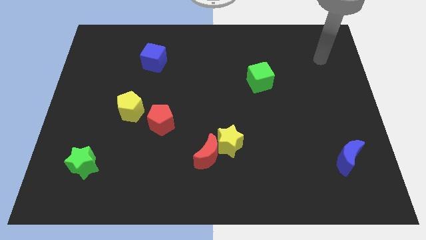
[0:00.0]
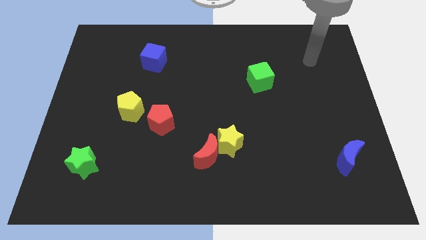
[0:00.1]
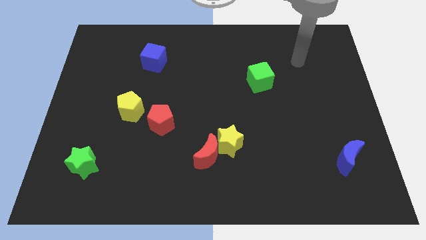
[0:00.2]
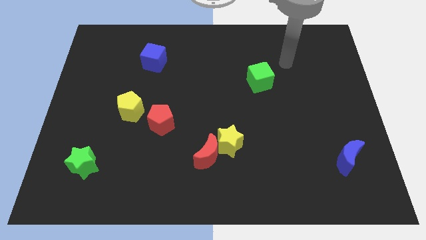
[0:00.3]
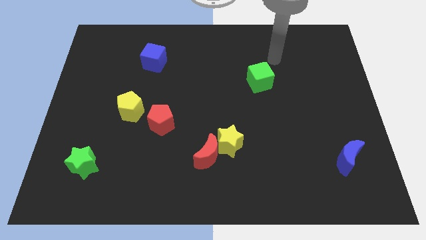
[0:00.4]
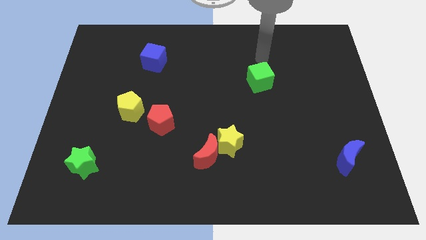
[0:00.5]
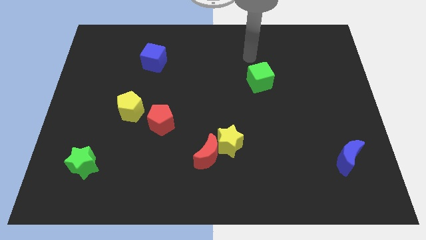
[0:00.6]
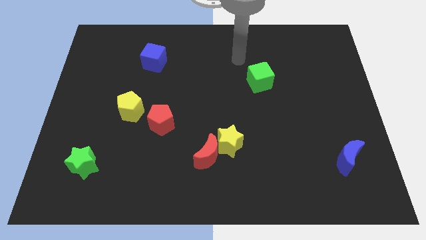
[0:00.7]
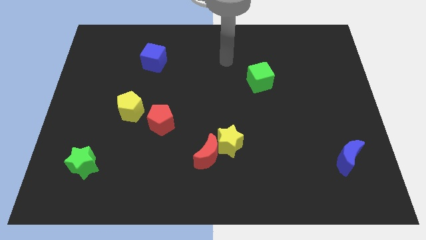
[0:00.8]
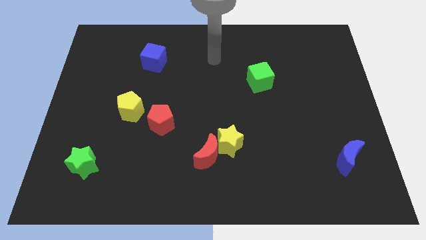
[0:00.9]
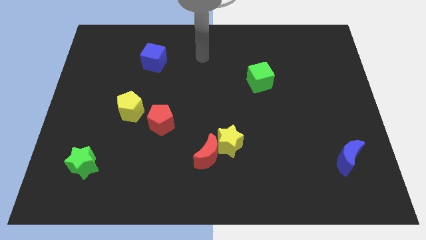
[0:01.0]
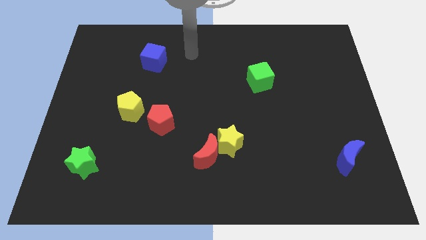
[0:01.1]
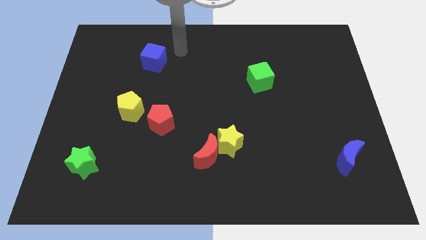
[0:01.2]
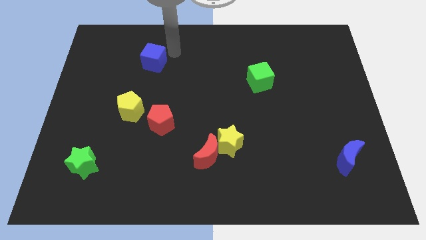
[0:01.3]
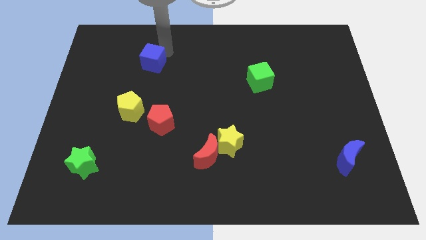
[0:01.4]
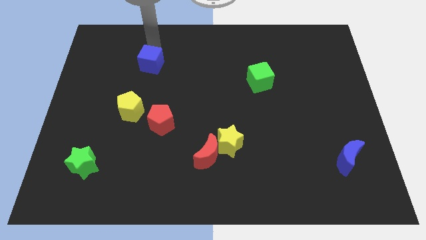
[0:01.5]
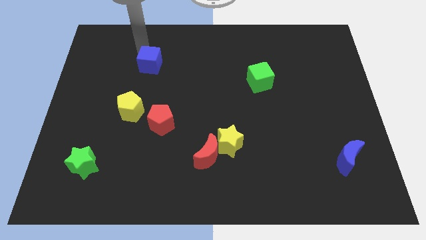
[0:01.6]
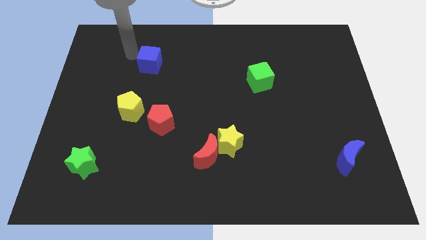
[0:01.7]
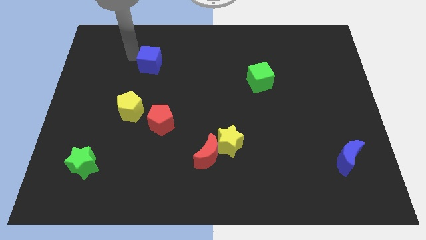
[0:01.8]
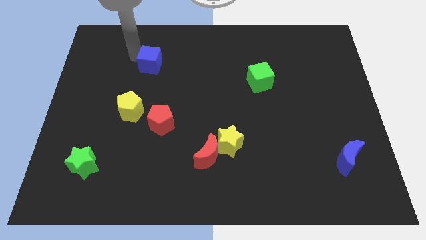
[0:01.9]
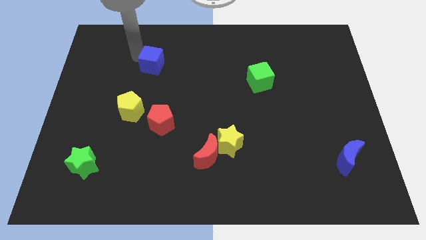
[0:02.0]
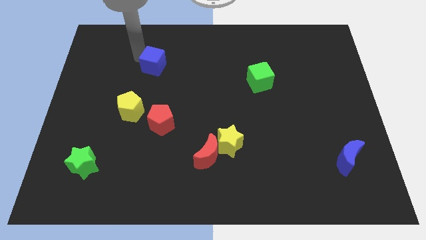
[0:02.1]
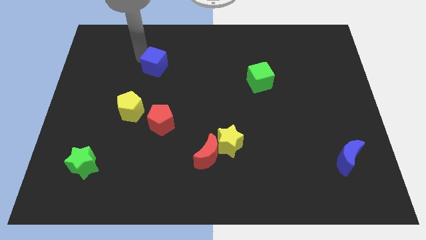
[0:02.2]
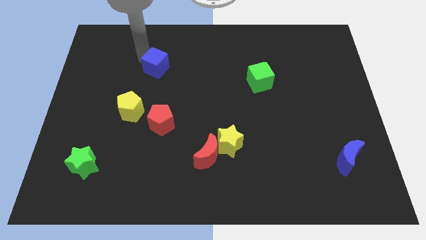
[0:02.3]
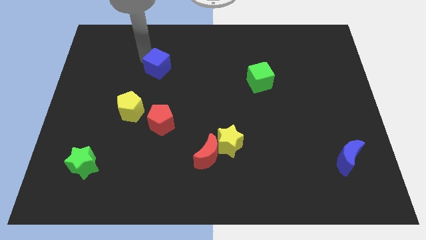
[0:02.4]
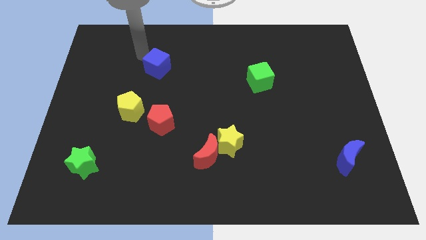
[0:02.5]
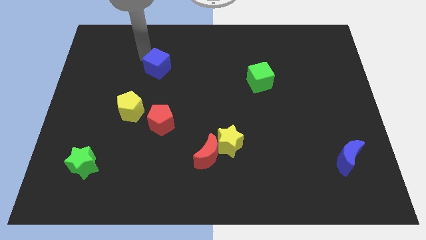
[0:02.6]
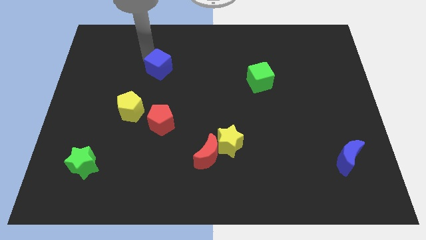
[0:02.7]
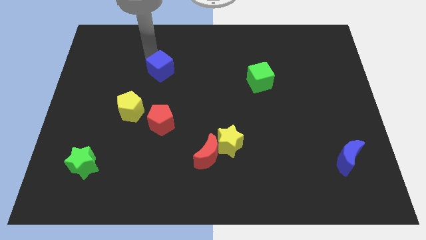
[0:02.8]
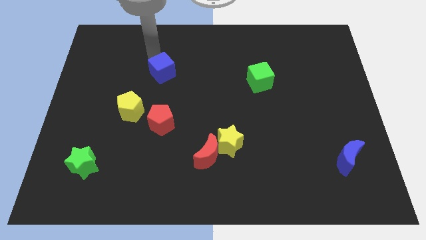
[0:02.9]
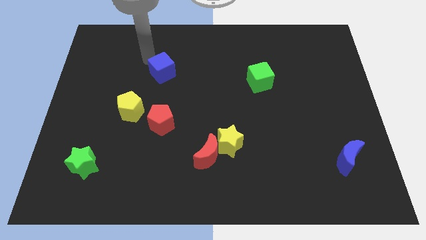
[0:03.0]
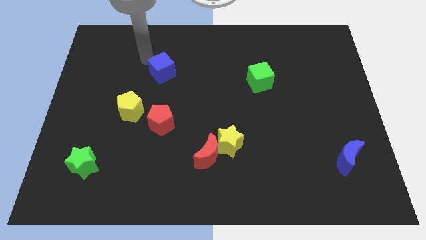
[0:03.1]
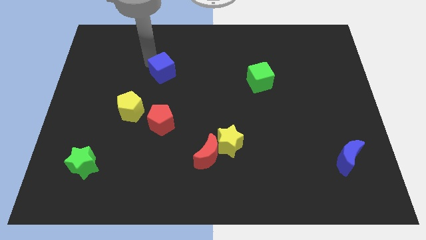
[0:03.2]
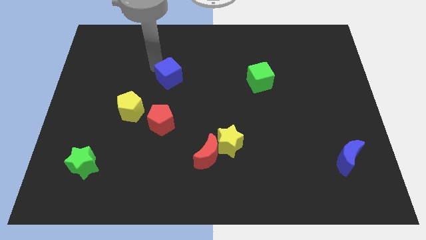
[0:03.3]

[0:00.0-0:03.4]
push the blue cube downwards and then right a little bit

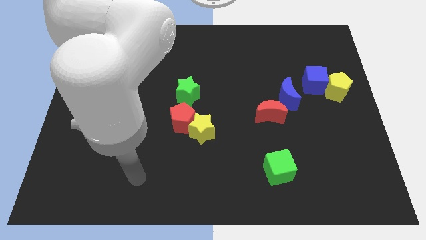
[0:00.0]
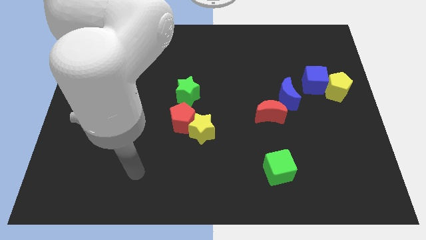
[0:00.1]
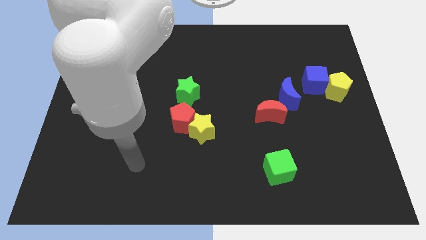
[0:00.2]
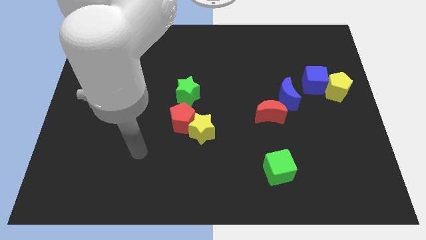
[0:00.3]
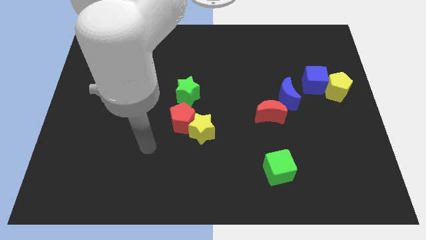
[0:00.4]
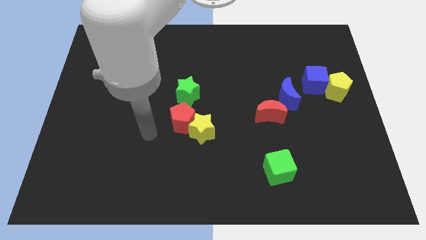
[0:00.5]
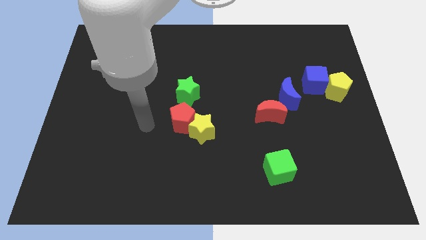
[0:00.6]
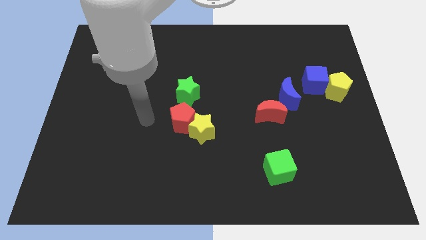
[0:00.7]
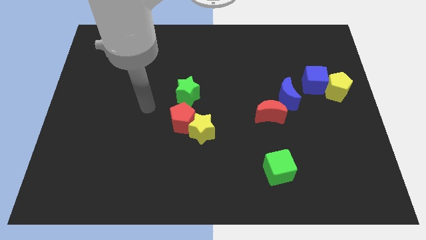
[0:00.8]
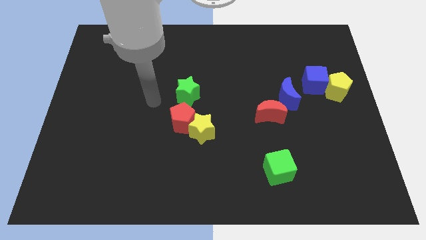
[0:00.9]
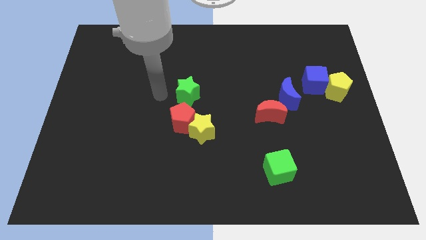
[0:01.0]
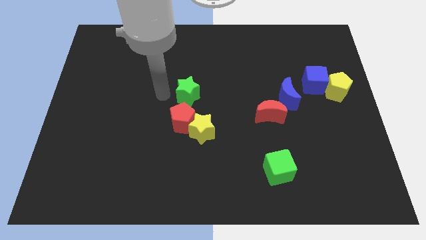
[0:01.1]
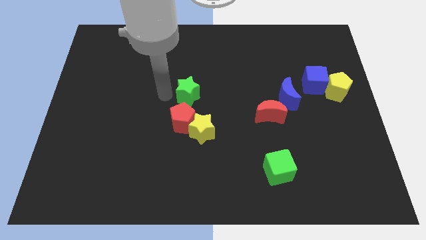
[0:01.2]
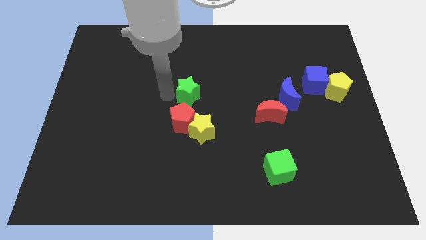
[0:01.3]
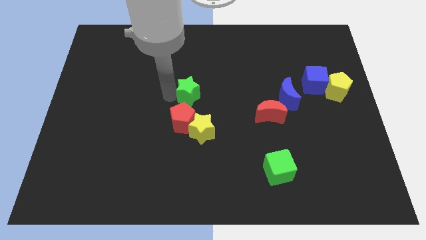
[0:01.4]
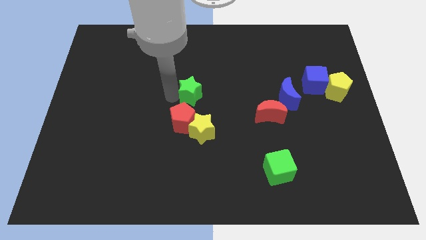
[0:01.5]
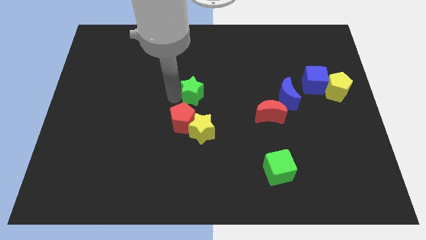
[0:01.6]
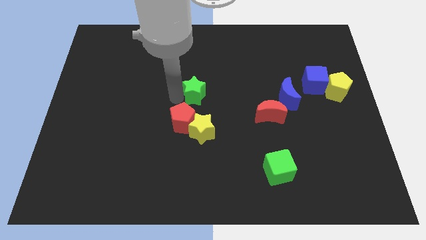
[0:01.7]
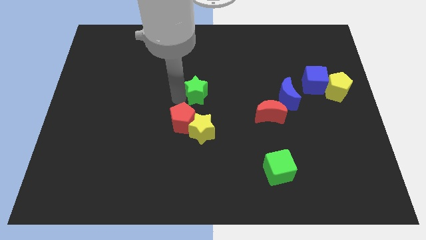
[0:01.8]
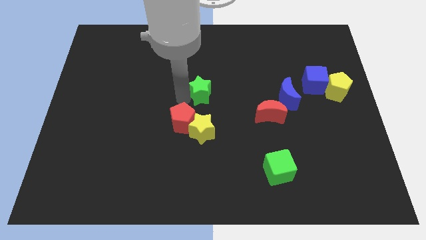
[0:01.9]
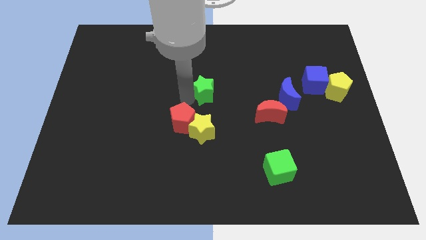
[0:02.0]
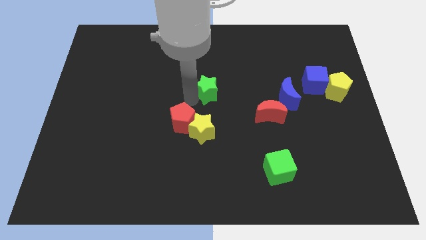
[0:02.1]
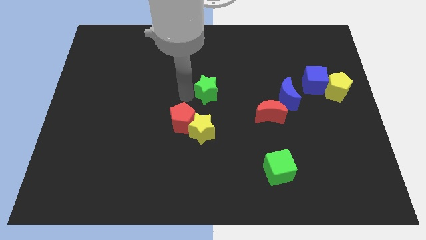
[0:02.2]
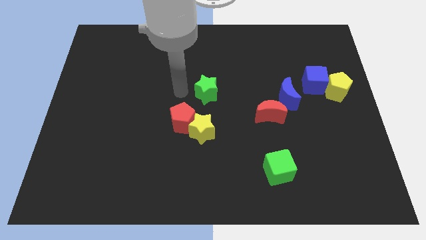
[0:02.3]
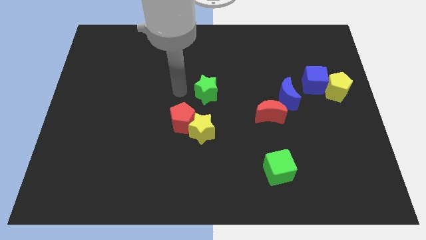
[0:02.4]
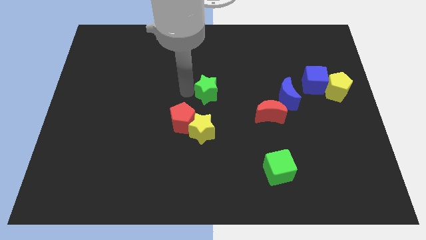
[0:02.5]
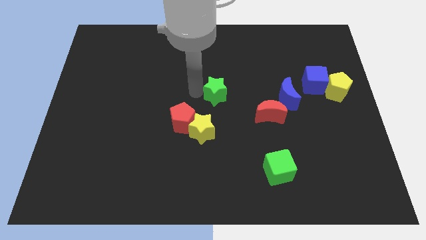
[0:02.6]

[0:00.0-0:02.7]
slightly push the green star to the right

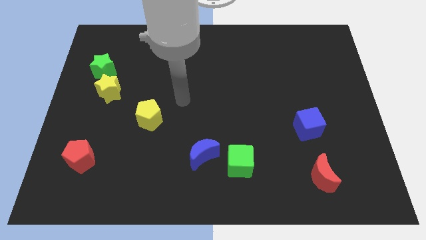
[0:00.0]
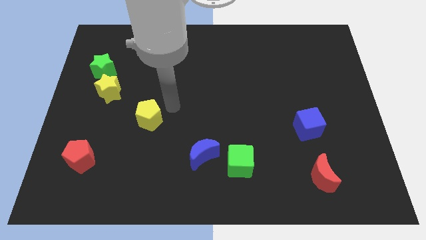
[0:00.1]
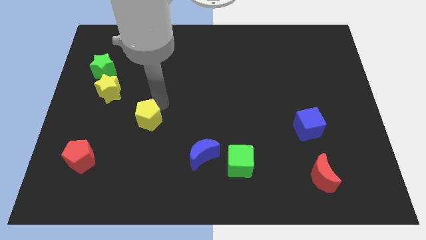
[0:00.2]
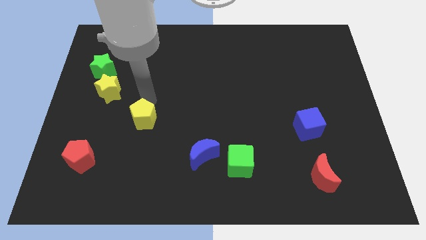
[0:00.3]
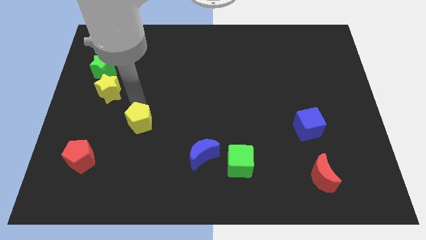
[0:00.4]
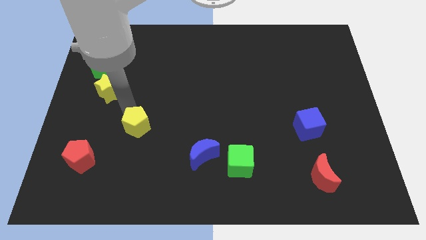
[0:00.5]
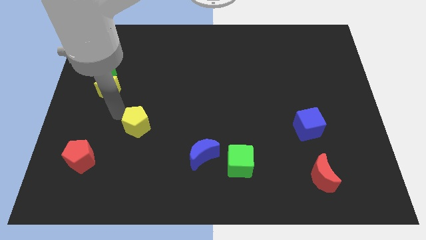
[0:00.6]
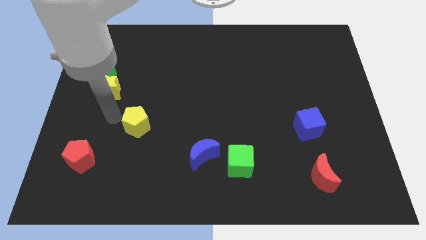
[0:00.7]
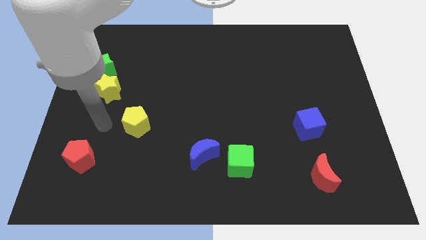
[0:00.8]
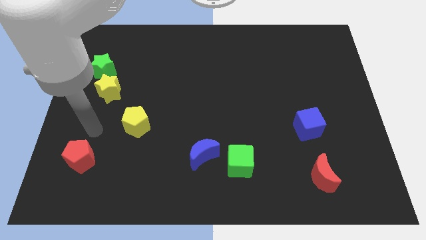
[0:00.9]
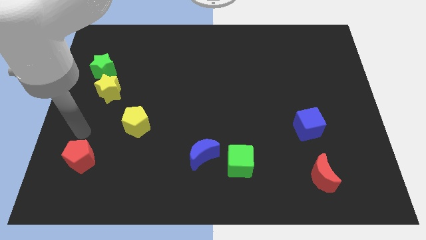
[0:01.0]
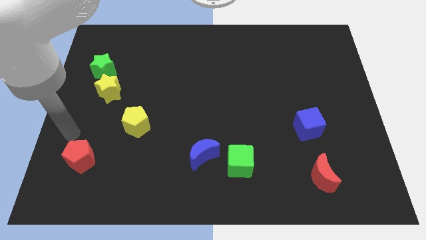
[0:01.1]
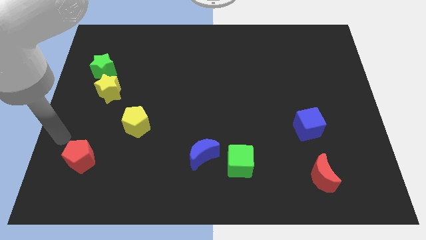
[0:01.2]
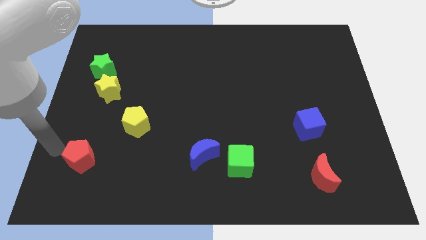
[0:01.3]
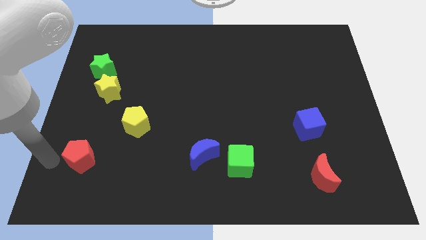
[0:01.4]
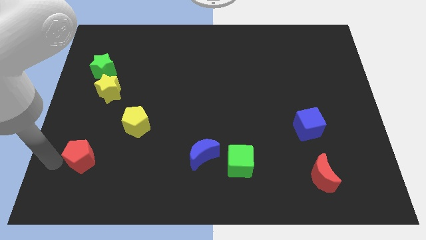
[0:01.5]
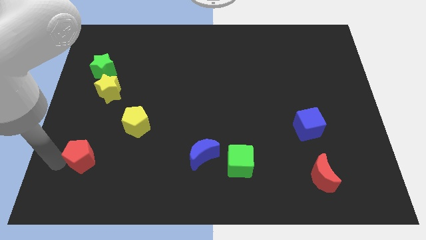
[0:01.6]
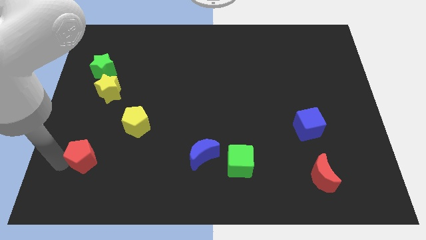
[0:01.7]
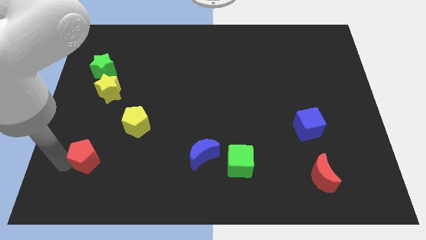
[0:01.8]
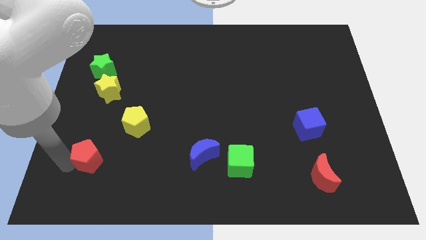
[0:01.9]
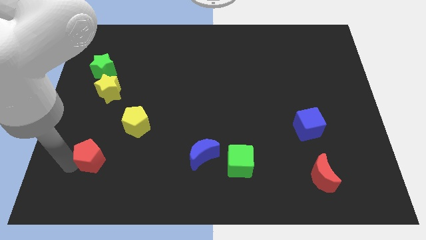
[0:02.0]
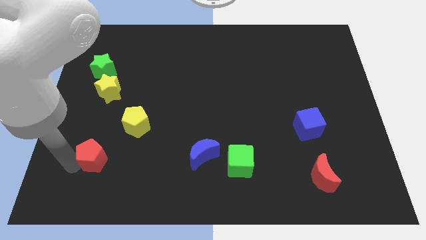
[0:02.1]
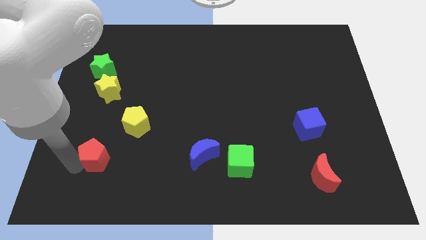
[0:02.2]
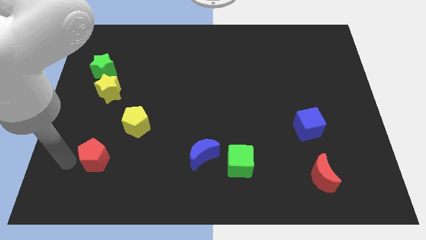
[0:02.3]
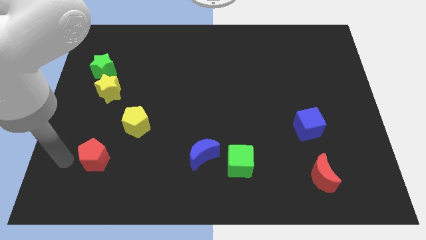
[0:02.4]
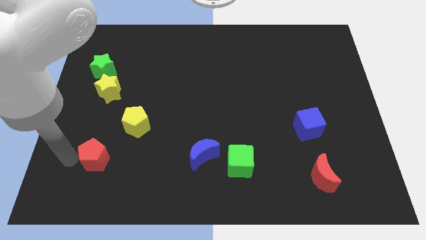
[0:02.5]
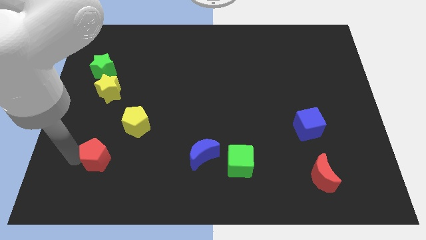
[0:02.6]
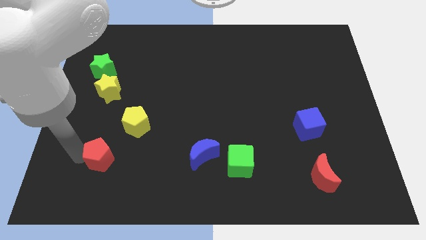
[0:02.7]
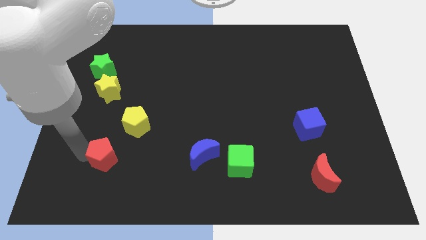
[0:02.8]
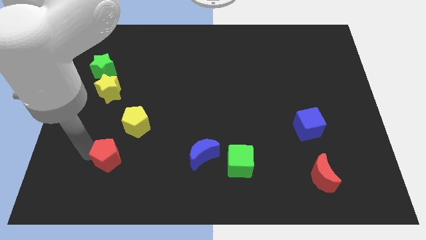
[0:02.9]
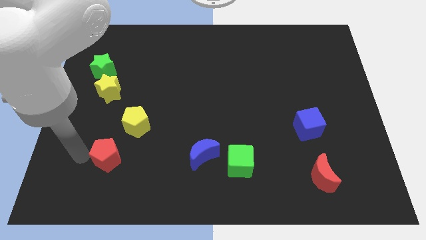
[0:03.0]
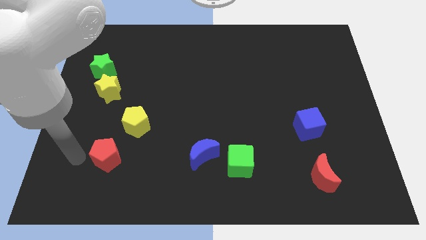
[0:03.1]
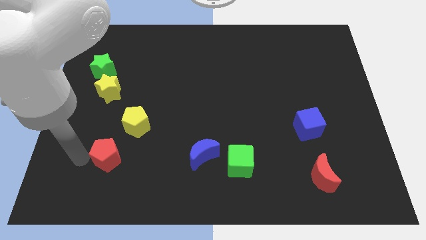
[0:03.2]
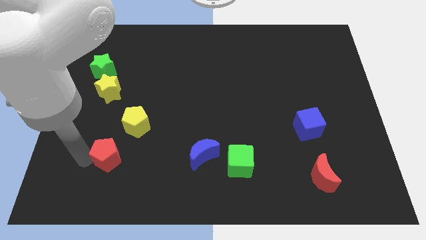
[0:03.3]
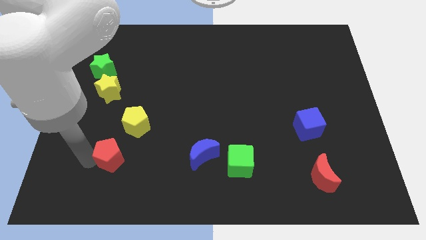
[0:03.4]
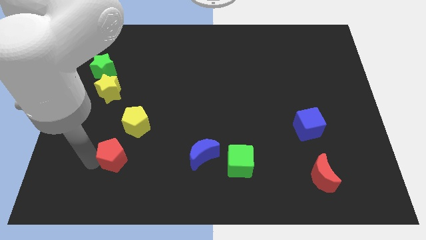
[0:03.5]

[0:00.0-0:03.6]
move the red pentagon to the right a little bit
